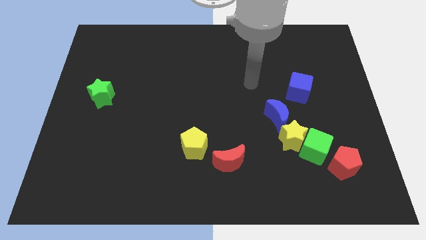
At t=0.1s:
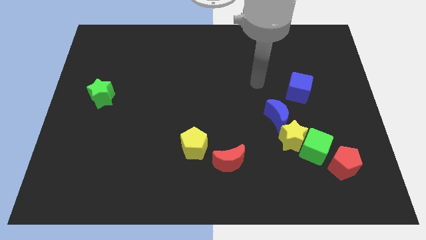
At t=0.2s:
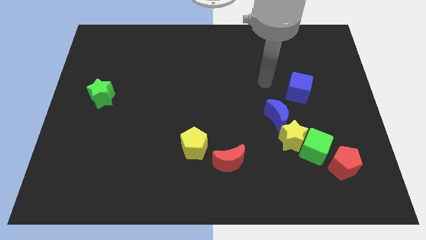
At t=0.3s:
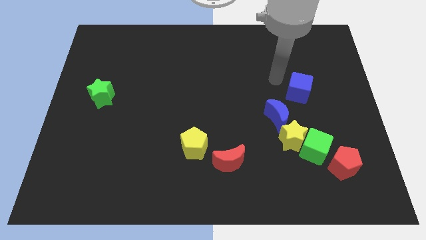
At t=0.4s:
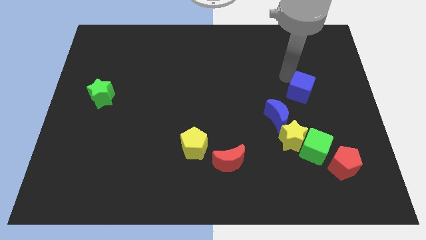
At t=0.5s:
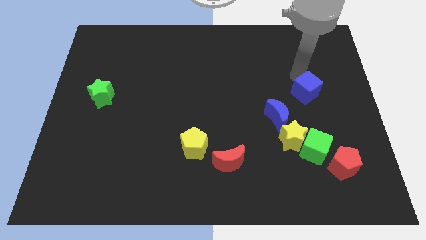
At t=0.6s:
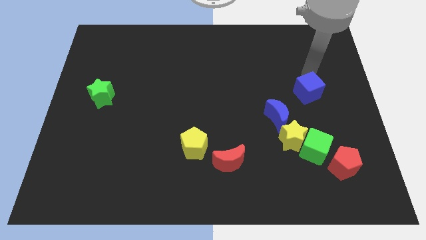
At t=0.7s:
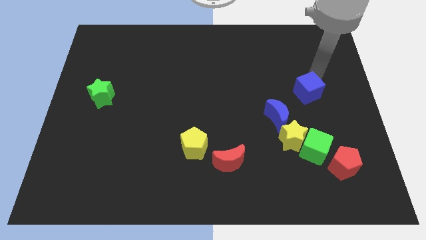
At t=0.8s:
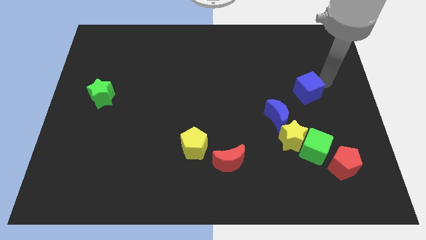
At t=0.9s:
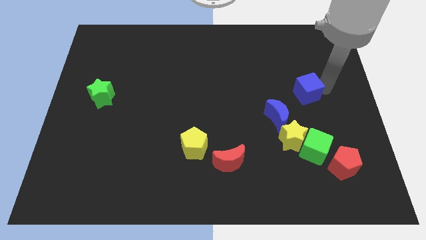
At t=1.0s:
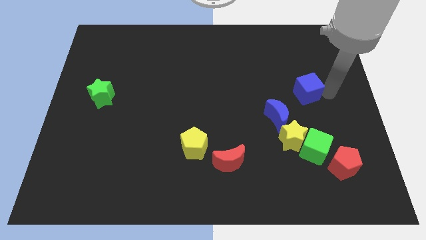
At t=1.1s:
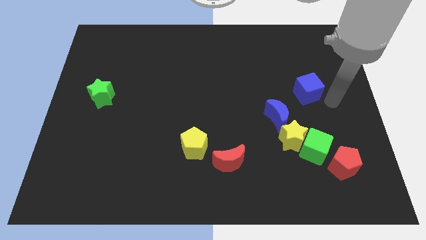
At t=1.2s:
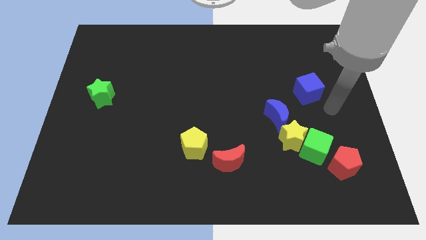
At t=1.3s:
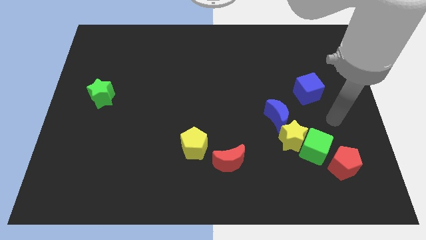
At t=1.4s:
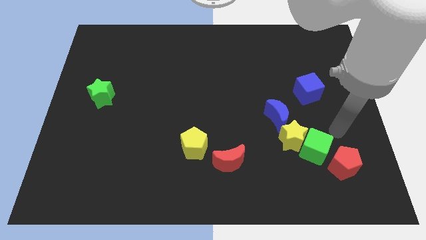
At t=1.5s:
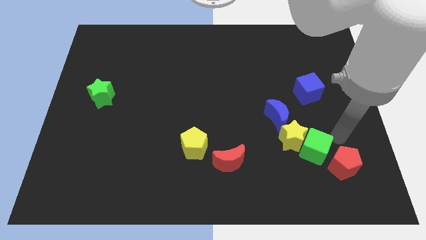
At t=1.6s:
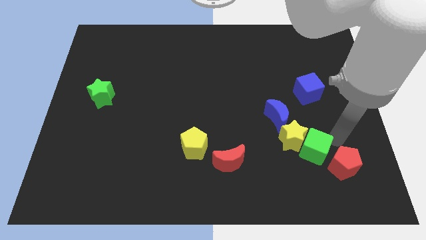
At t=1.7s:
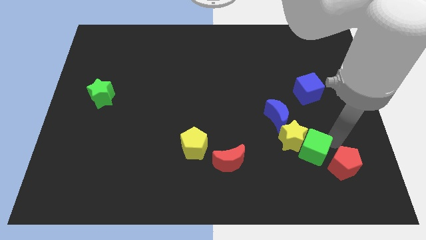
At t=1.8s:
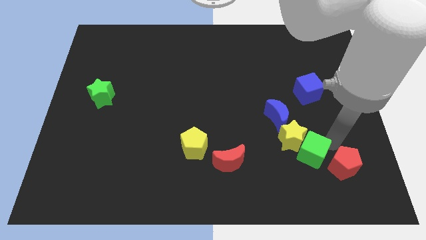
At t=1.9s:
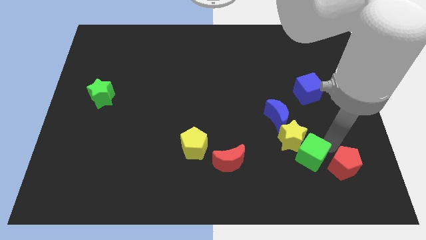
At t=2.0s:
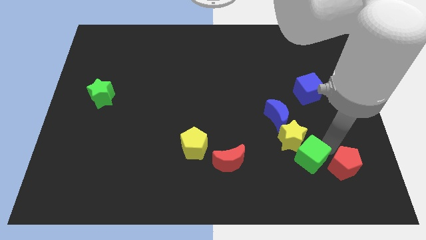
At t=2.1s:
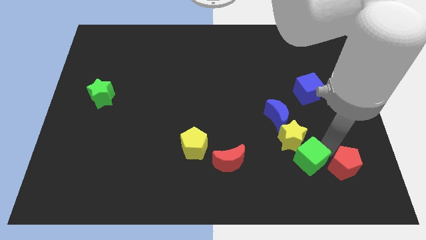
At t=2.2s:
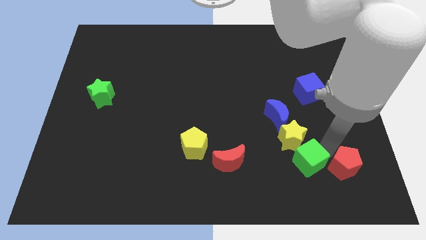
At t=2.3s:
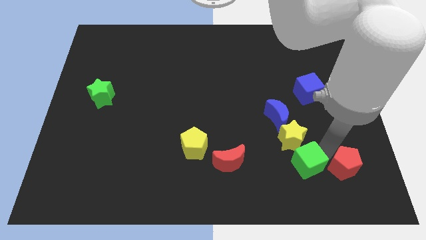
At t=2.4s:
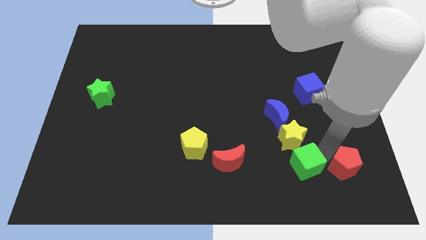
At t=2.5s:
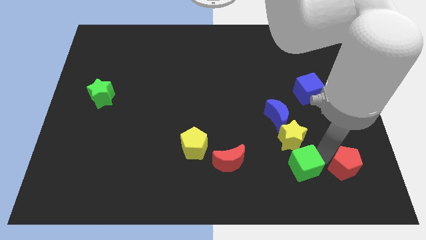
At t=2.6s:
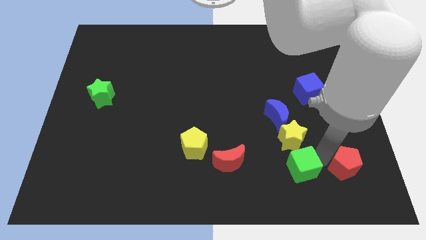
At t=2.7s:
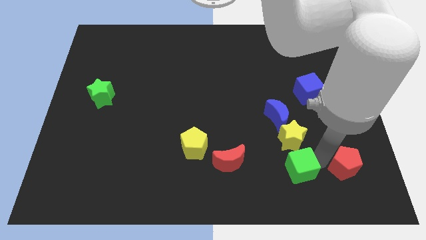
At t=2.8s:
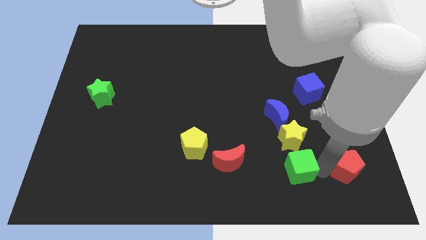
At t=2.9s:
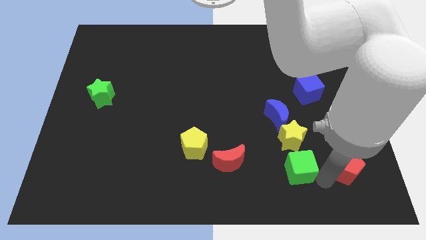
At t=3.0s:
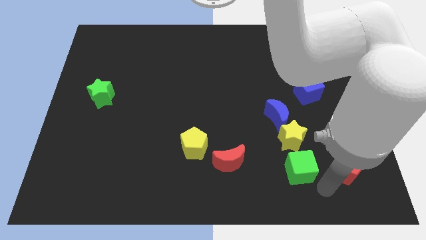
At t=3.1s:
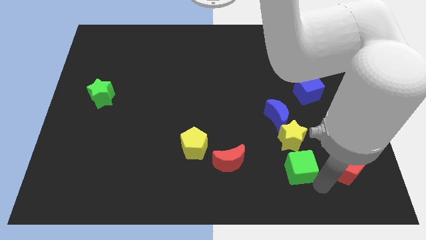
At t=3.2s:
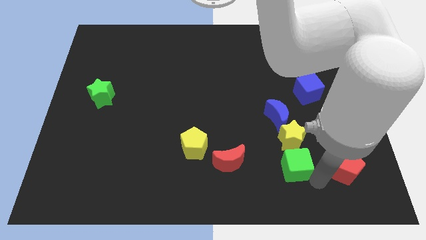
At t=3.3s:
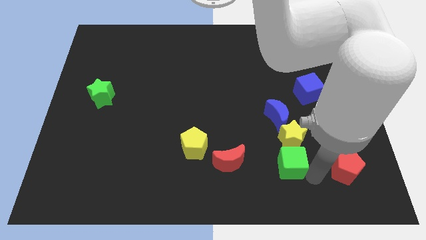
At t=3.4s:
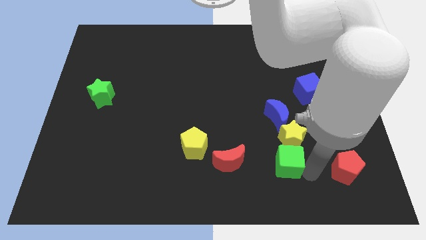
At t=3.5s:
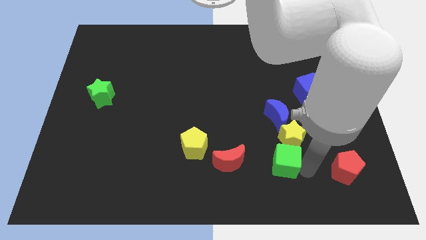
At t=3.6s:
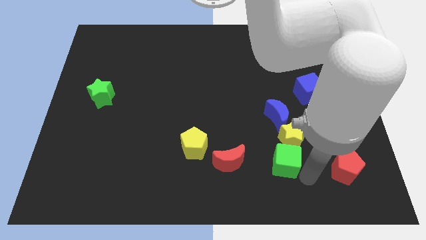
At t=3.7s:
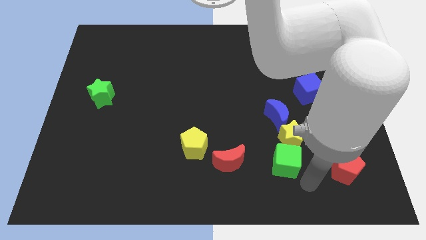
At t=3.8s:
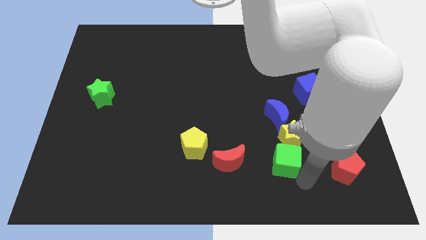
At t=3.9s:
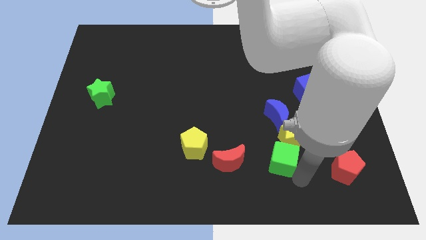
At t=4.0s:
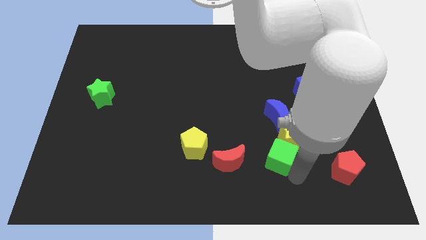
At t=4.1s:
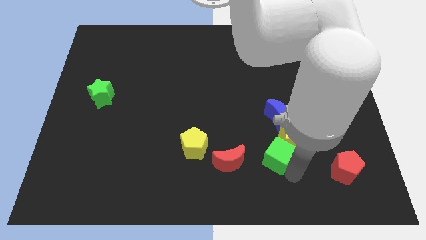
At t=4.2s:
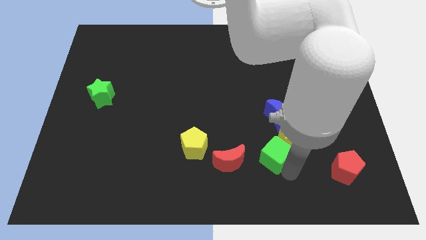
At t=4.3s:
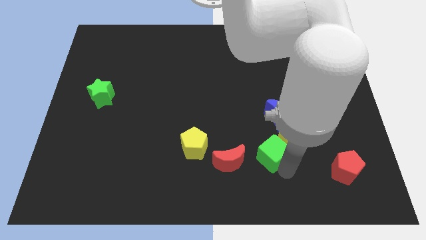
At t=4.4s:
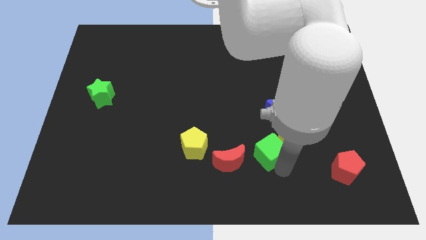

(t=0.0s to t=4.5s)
slide the green cube to the bottom left of the blue moon

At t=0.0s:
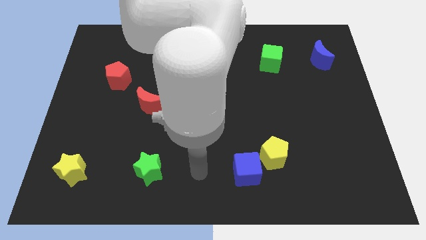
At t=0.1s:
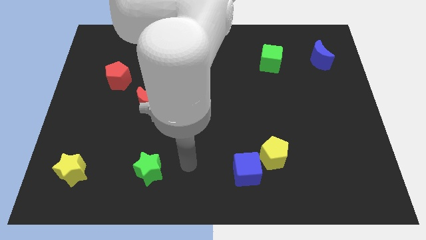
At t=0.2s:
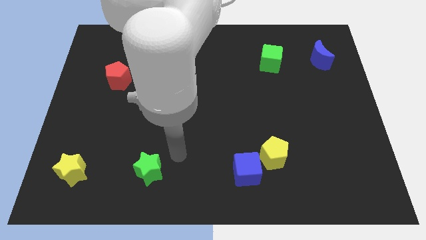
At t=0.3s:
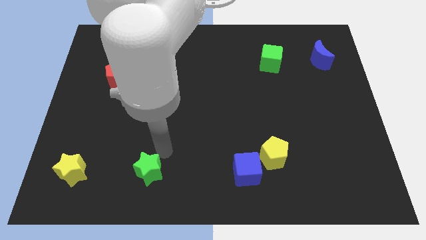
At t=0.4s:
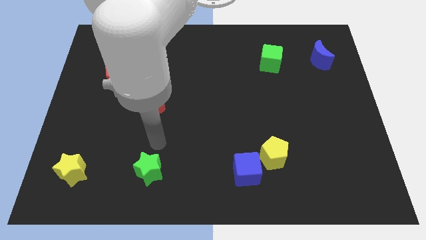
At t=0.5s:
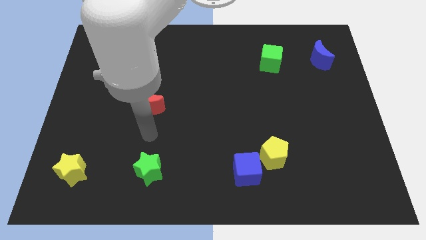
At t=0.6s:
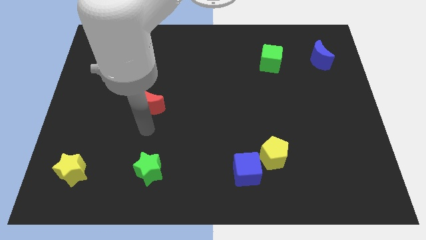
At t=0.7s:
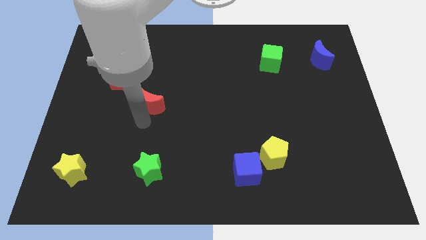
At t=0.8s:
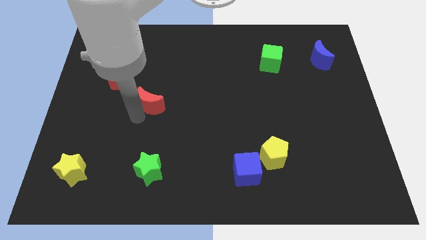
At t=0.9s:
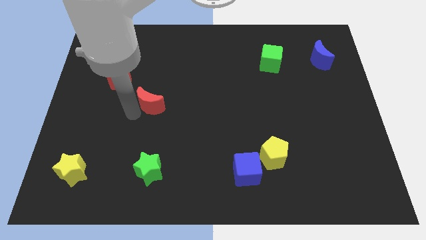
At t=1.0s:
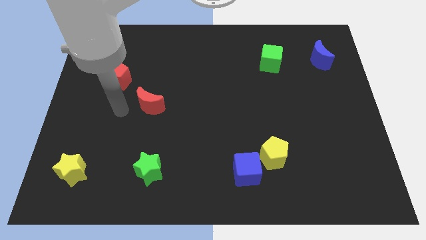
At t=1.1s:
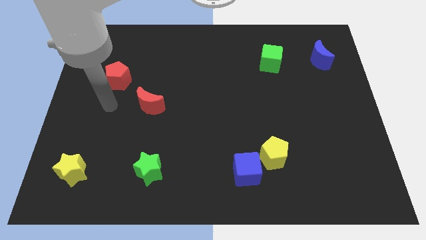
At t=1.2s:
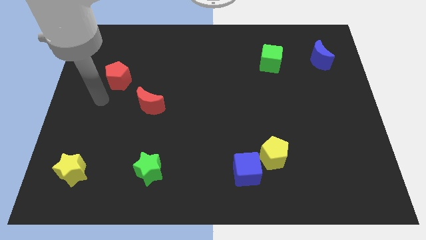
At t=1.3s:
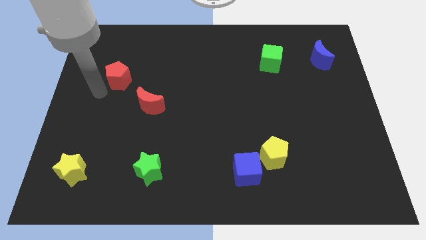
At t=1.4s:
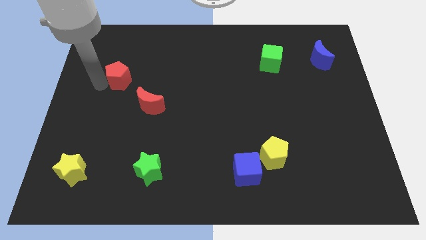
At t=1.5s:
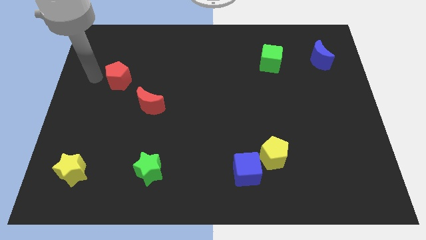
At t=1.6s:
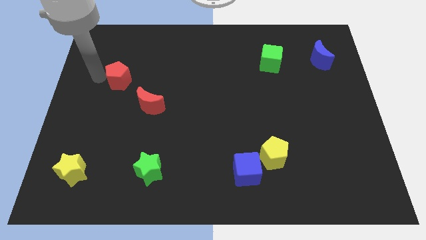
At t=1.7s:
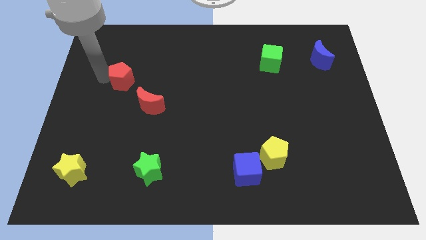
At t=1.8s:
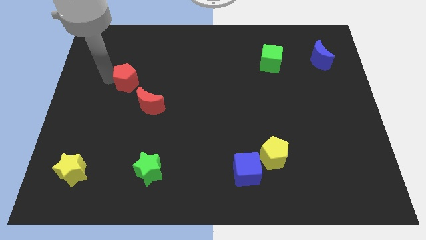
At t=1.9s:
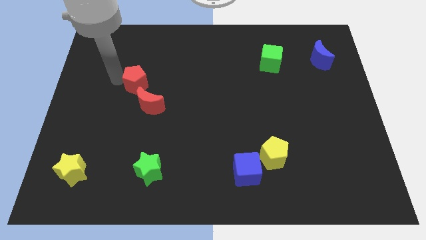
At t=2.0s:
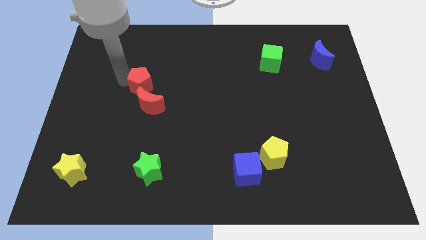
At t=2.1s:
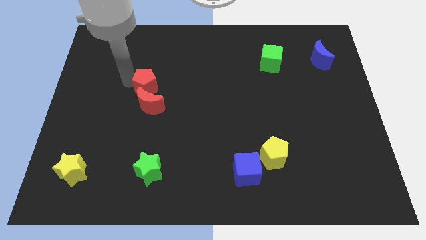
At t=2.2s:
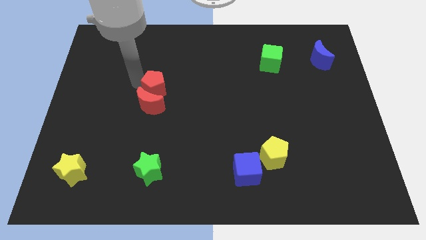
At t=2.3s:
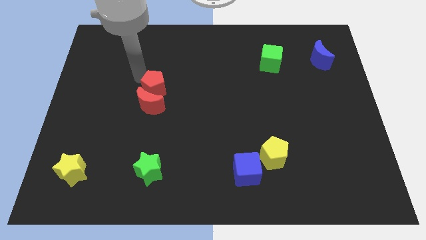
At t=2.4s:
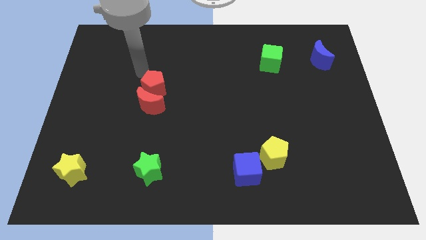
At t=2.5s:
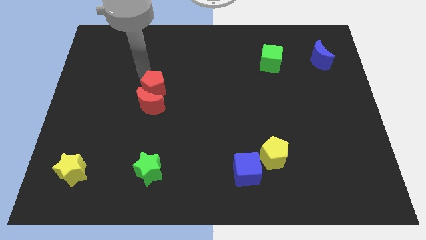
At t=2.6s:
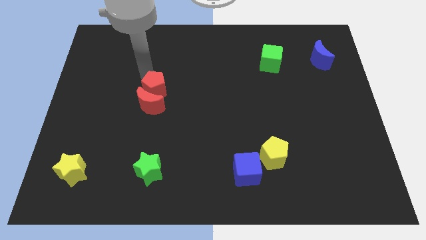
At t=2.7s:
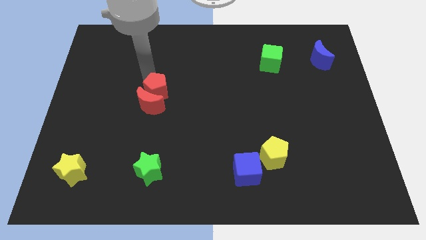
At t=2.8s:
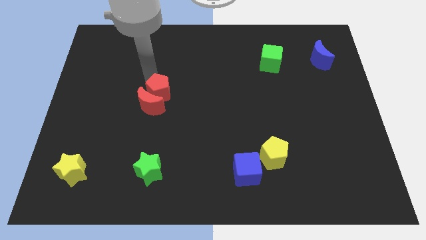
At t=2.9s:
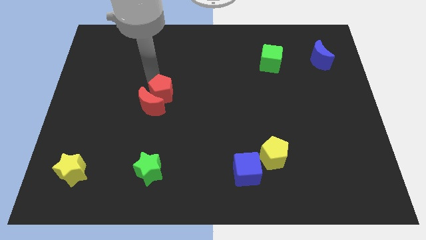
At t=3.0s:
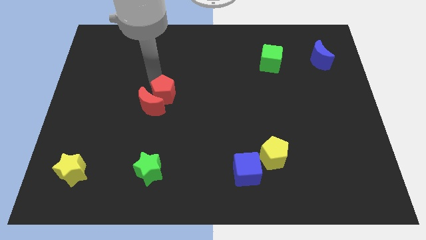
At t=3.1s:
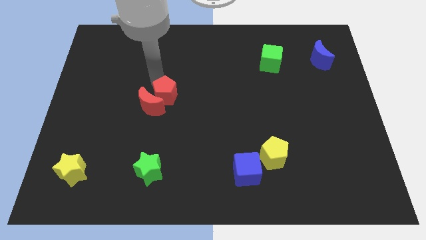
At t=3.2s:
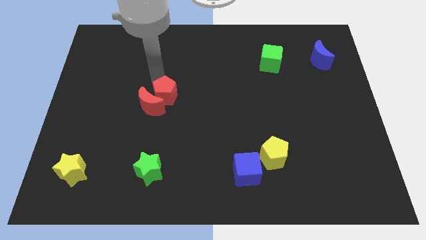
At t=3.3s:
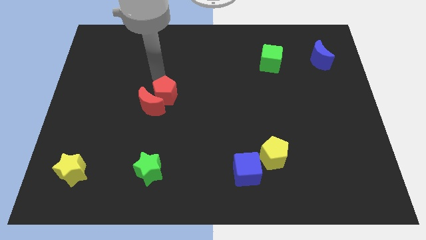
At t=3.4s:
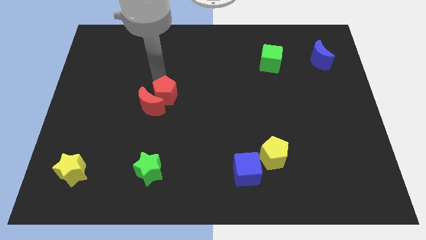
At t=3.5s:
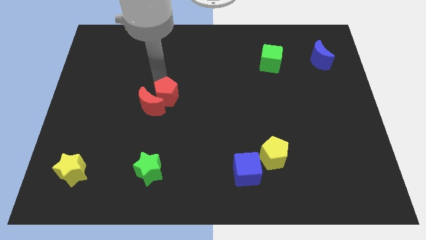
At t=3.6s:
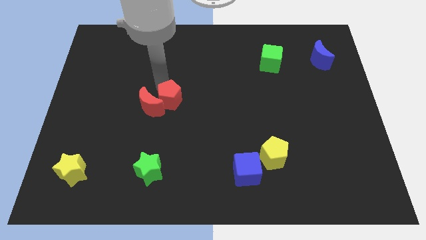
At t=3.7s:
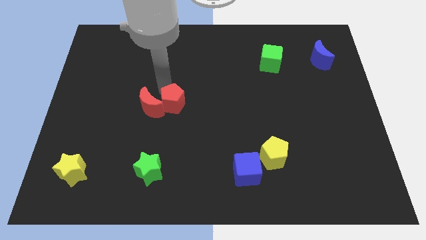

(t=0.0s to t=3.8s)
push the red pentagon to the bottom right side of the red moon
